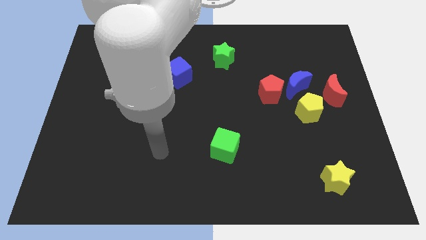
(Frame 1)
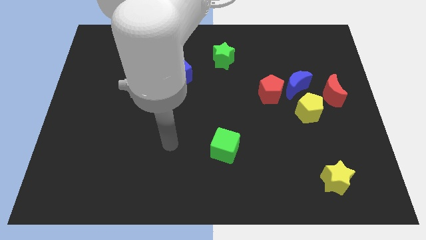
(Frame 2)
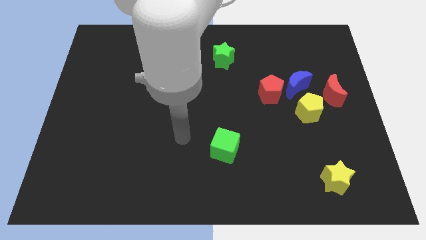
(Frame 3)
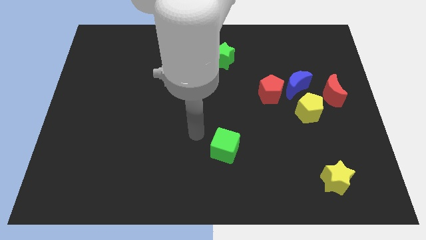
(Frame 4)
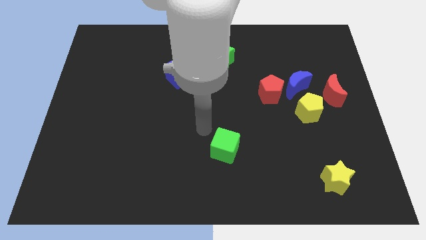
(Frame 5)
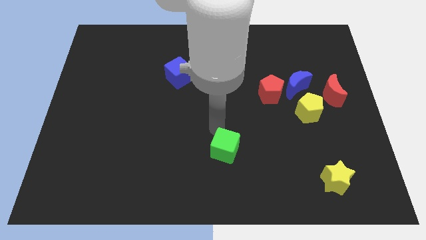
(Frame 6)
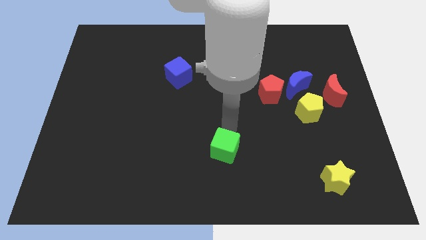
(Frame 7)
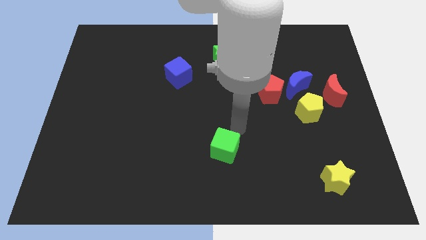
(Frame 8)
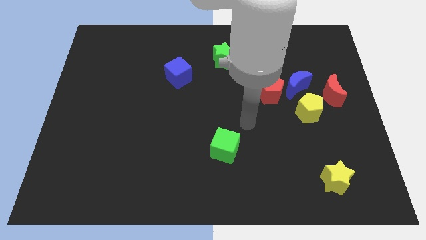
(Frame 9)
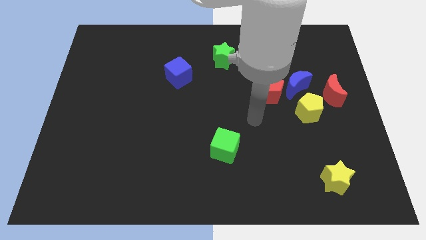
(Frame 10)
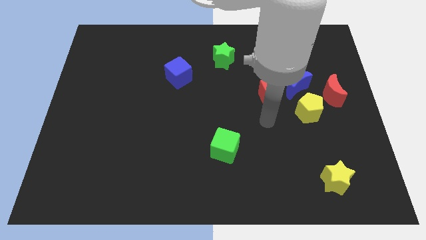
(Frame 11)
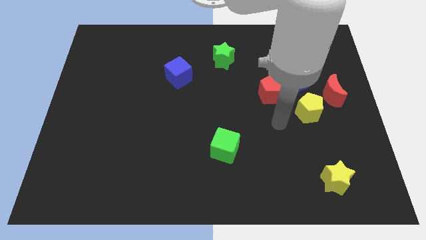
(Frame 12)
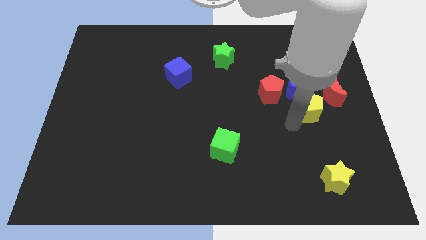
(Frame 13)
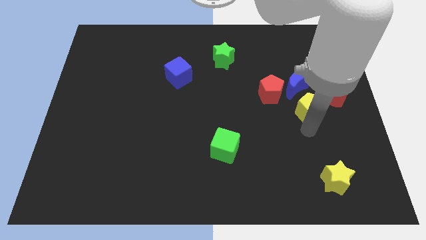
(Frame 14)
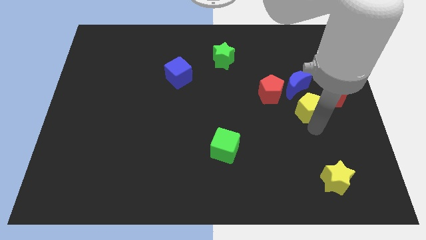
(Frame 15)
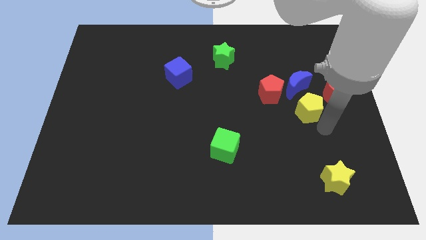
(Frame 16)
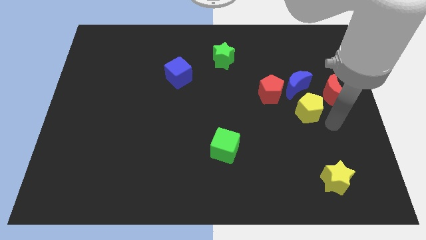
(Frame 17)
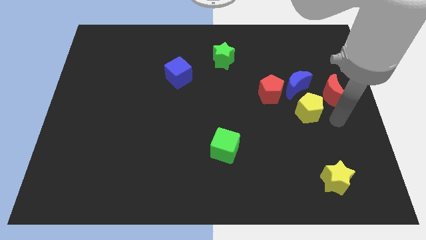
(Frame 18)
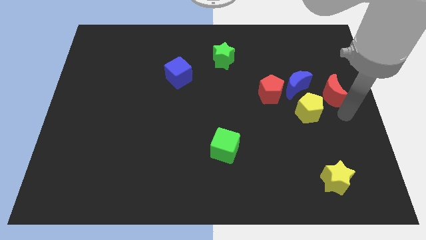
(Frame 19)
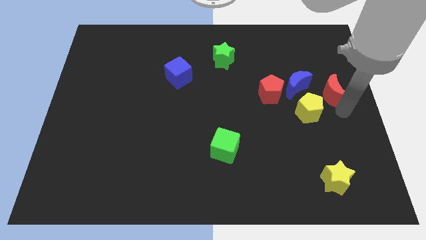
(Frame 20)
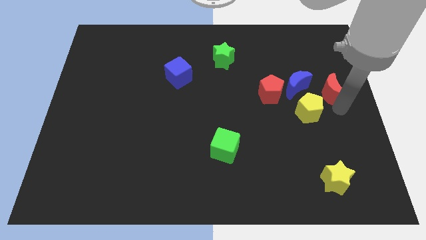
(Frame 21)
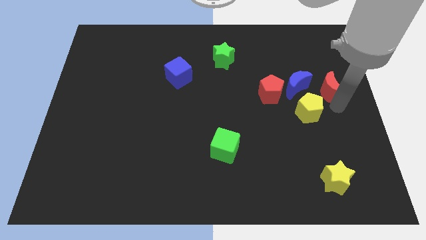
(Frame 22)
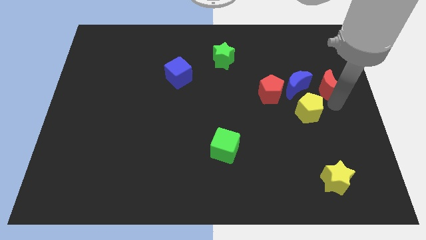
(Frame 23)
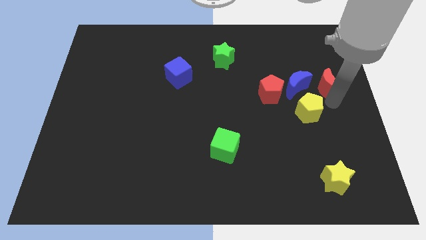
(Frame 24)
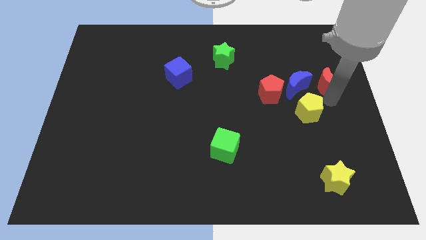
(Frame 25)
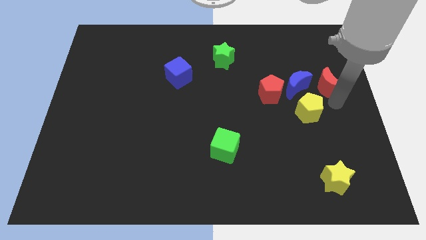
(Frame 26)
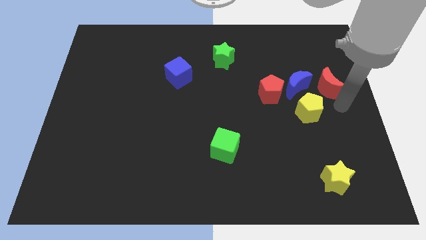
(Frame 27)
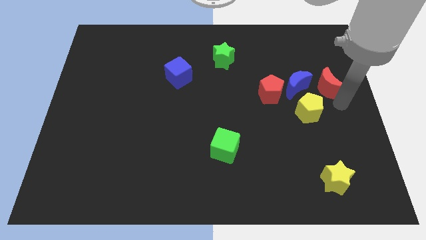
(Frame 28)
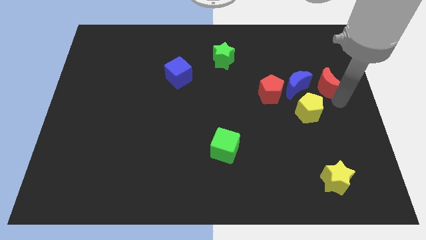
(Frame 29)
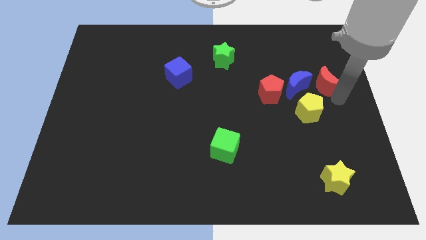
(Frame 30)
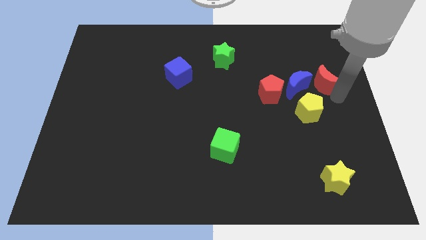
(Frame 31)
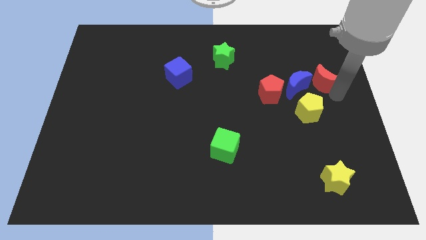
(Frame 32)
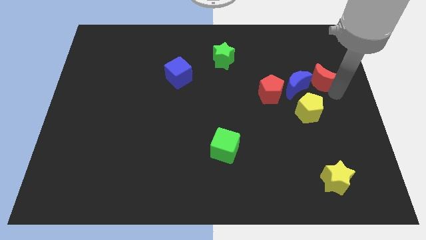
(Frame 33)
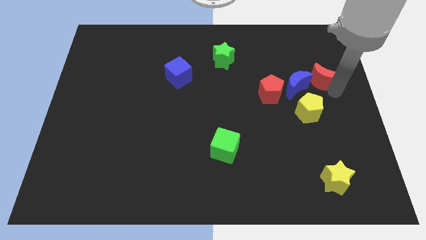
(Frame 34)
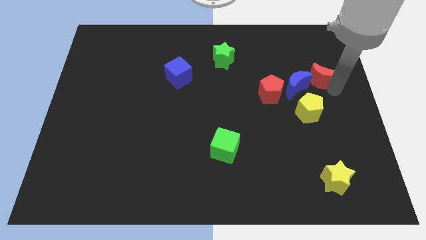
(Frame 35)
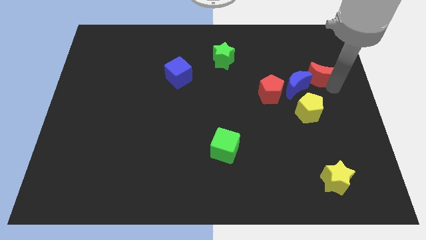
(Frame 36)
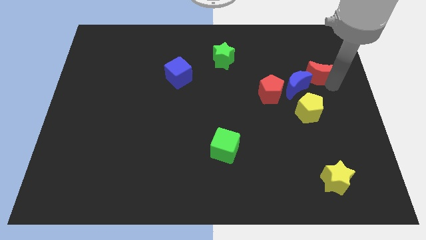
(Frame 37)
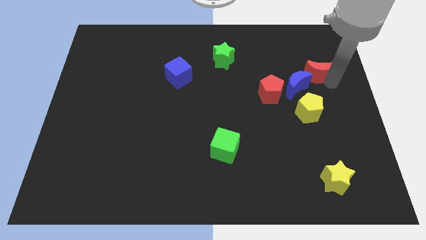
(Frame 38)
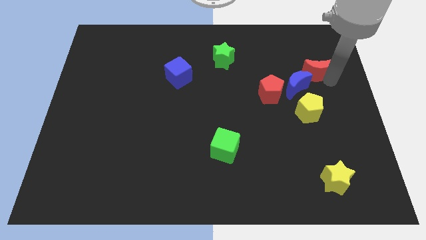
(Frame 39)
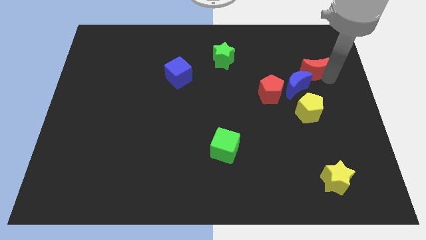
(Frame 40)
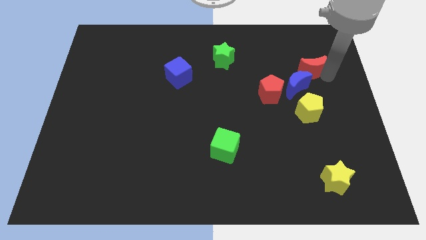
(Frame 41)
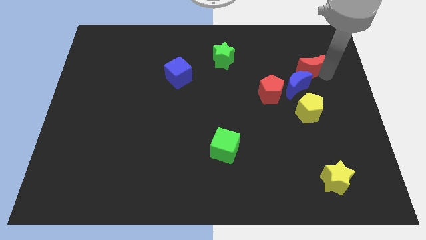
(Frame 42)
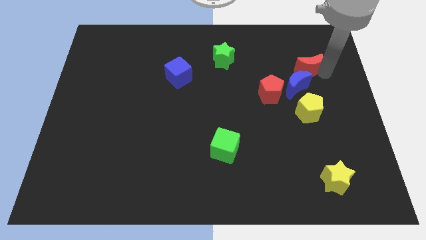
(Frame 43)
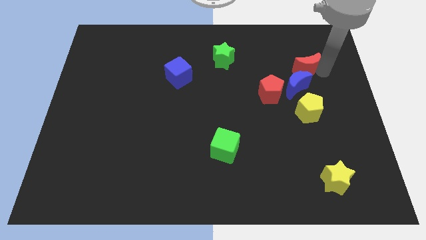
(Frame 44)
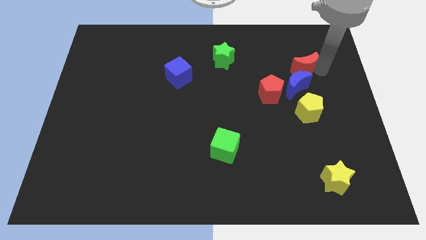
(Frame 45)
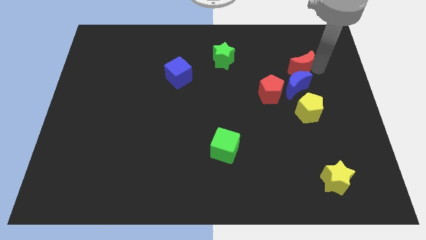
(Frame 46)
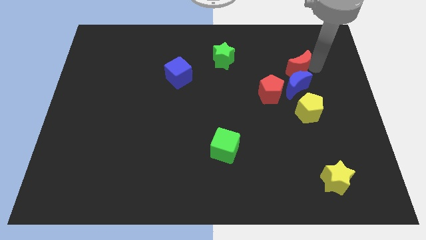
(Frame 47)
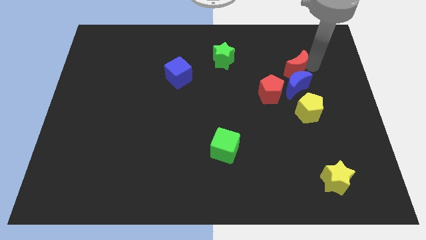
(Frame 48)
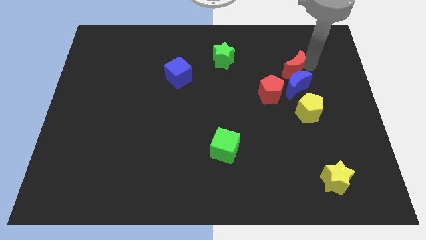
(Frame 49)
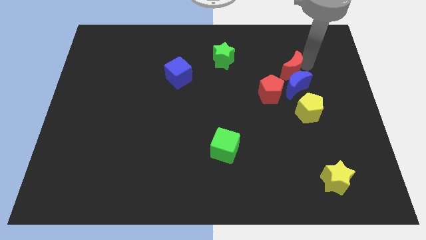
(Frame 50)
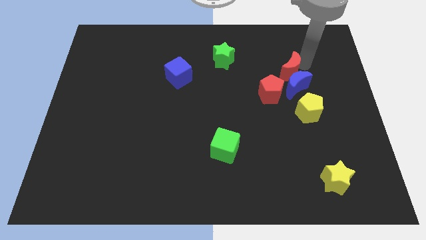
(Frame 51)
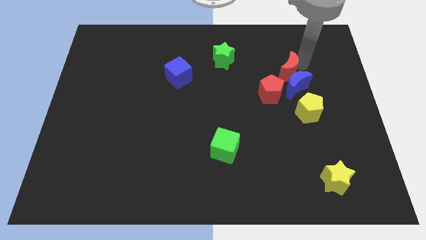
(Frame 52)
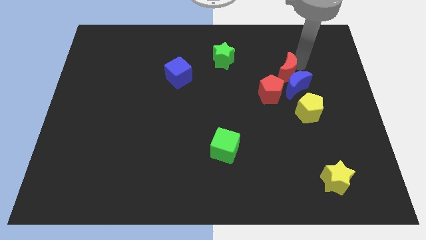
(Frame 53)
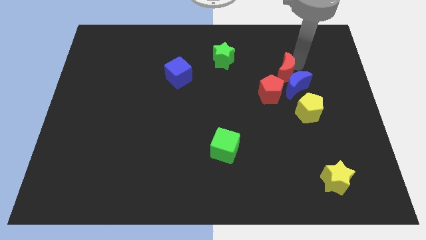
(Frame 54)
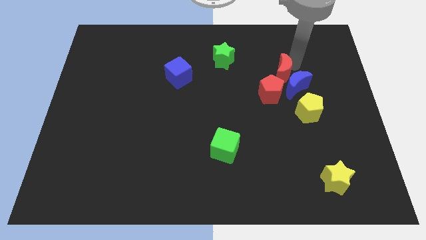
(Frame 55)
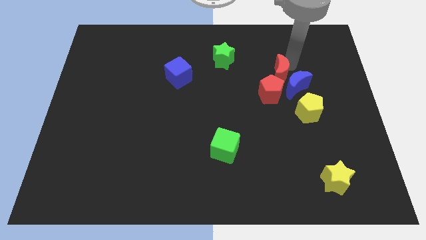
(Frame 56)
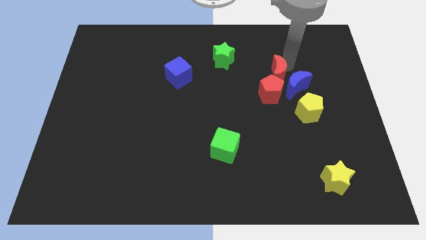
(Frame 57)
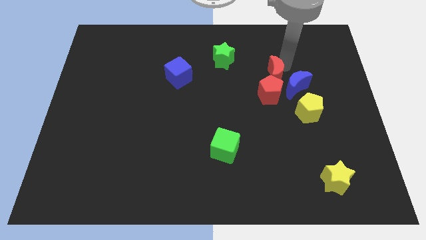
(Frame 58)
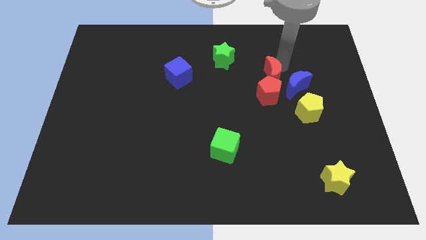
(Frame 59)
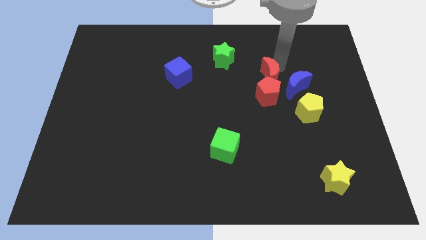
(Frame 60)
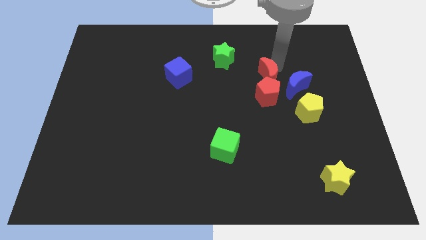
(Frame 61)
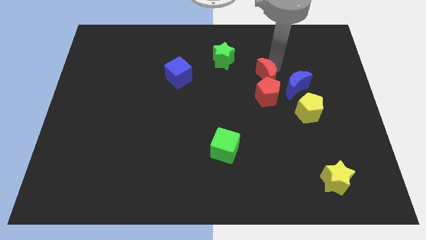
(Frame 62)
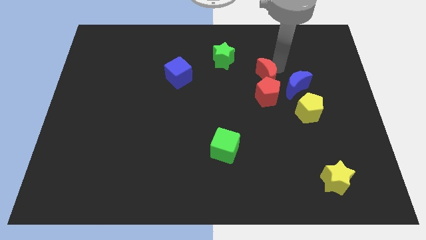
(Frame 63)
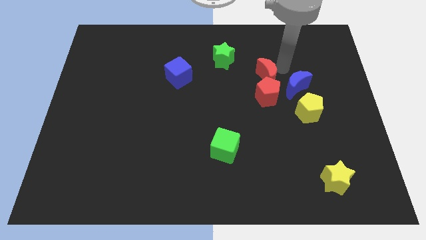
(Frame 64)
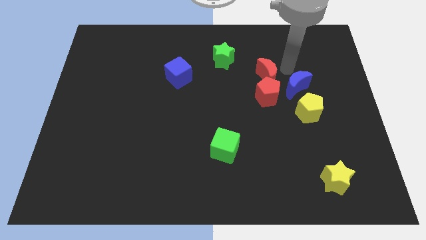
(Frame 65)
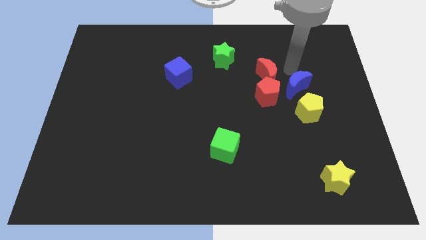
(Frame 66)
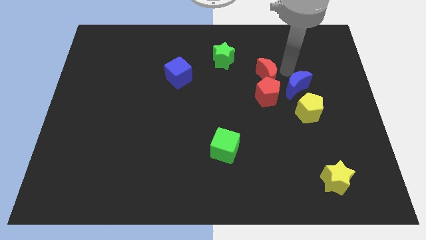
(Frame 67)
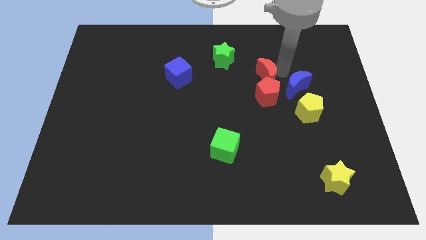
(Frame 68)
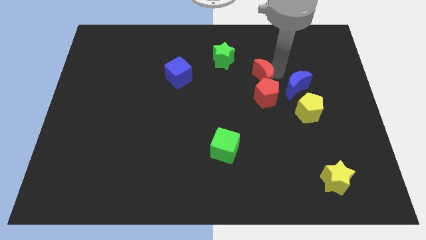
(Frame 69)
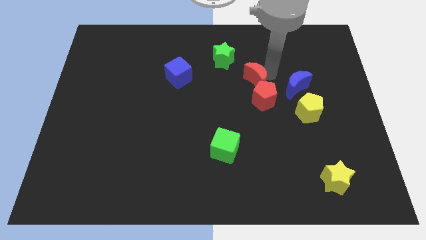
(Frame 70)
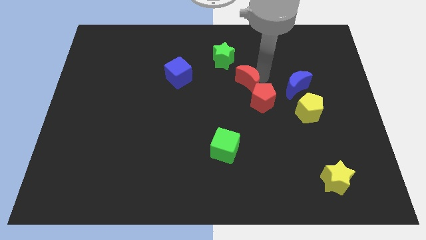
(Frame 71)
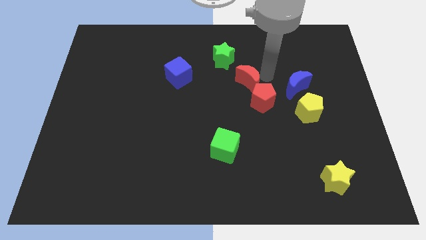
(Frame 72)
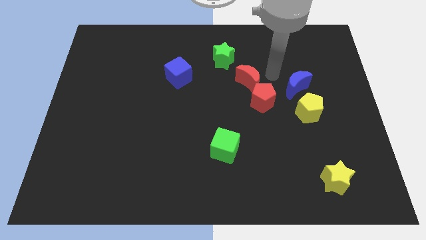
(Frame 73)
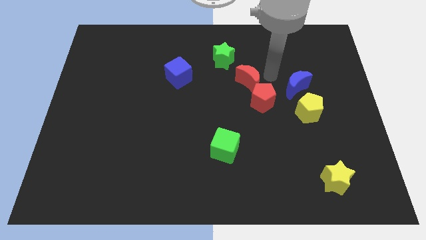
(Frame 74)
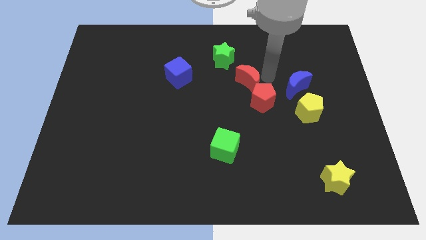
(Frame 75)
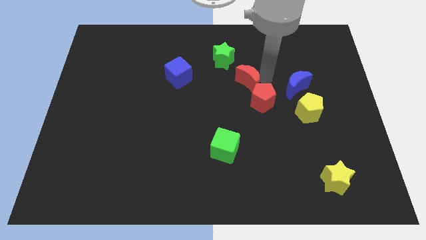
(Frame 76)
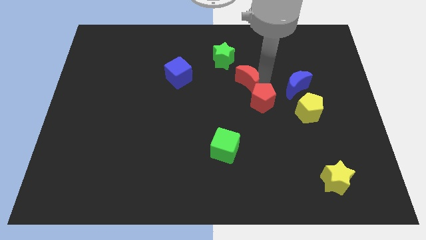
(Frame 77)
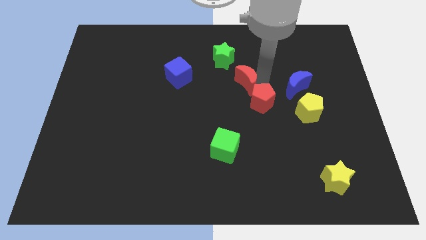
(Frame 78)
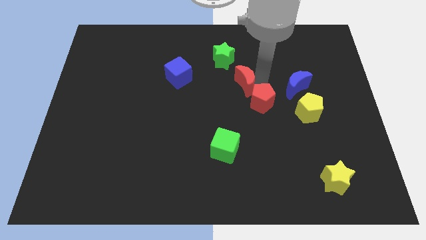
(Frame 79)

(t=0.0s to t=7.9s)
move the red moon left

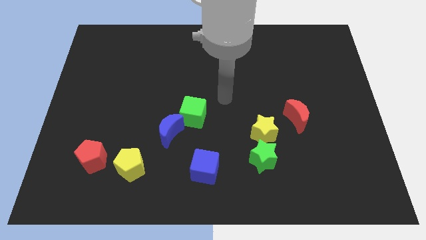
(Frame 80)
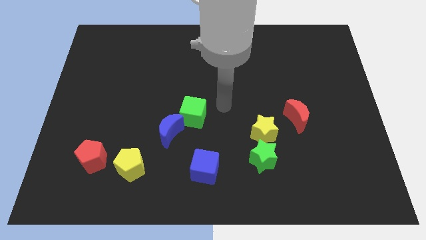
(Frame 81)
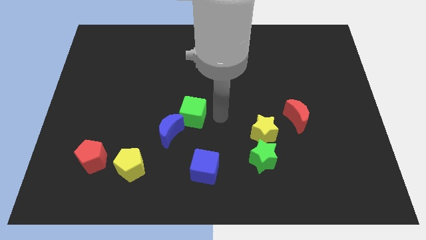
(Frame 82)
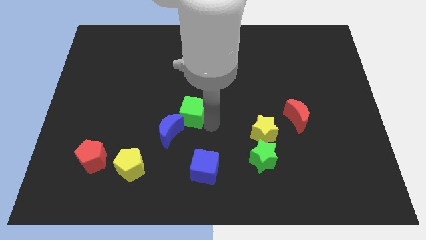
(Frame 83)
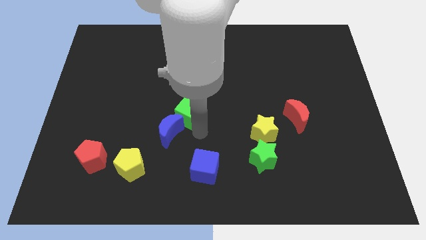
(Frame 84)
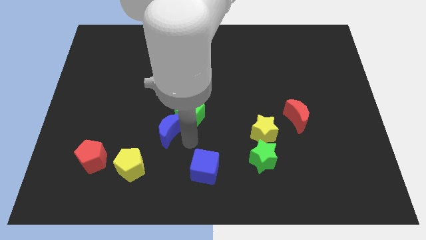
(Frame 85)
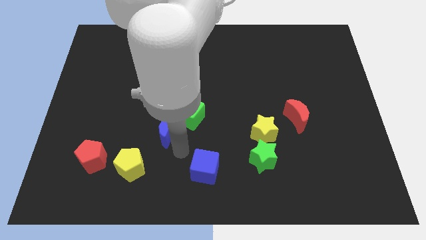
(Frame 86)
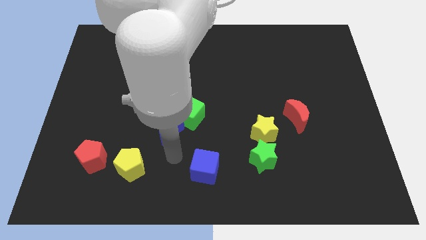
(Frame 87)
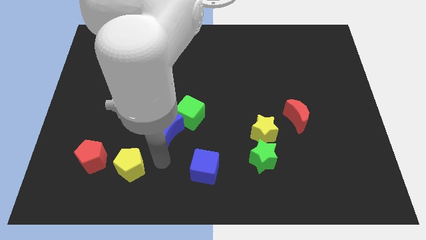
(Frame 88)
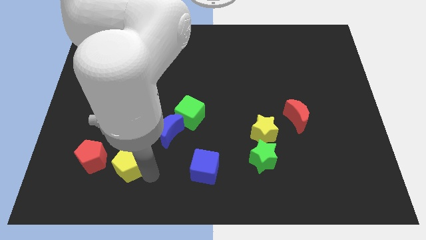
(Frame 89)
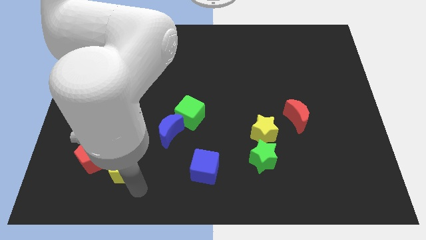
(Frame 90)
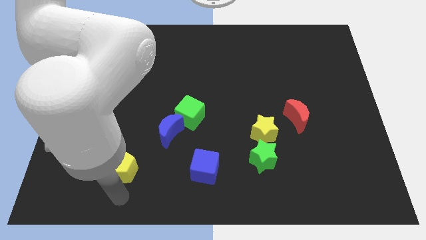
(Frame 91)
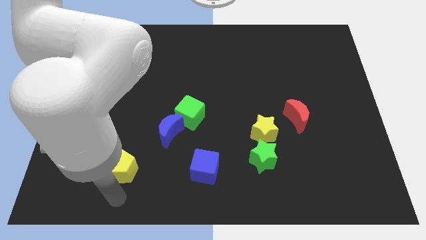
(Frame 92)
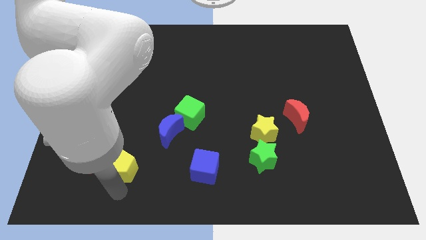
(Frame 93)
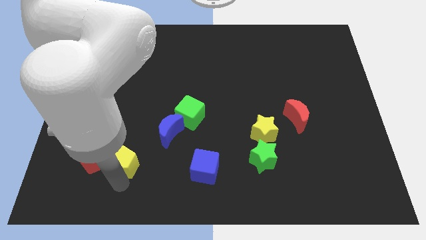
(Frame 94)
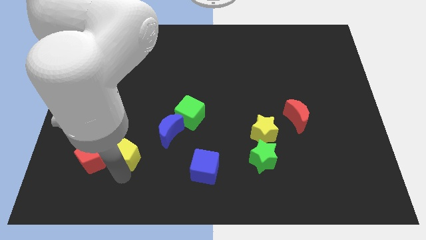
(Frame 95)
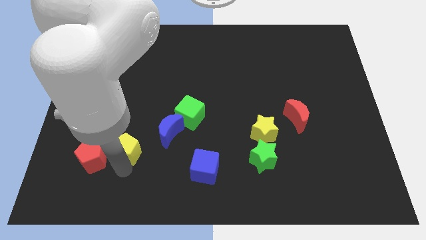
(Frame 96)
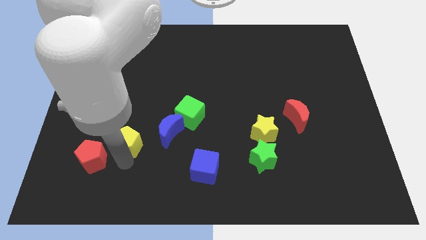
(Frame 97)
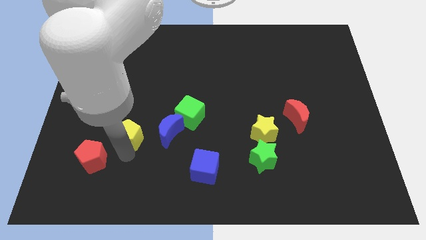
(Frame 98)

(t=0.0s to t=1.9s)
move the yellow pentagon a little up
